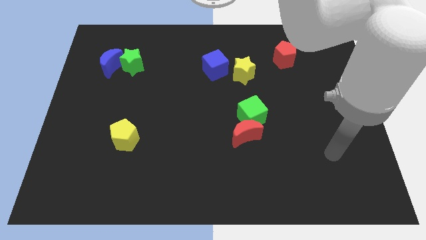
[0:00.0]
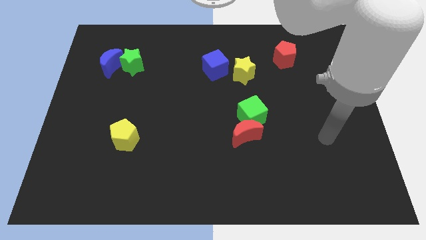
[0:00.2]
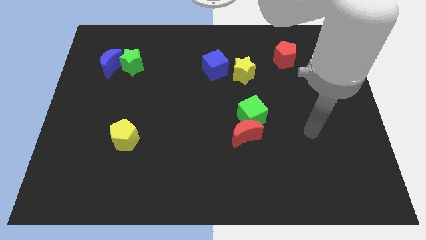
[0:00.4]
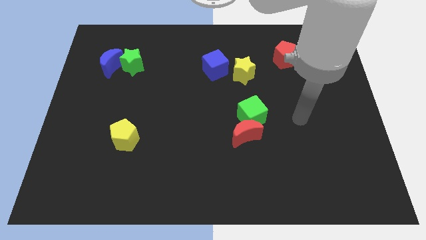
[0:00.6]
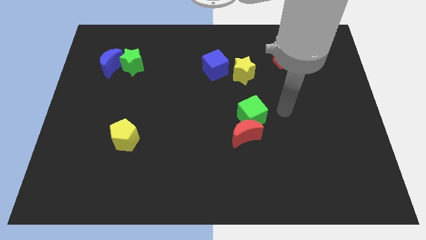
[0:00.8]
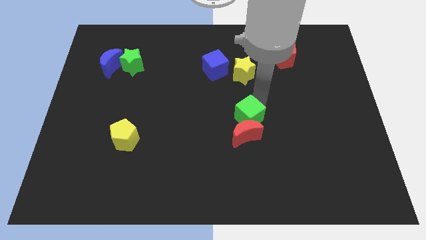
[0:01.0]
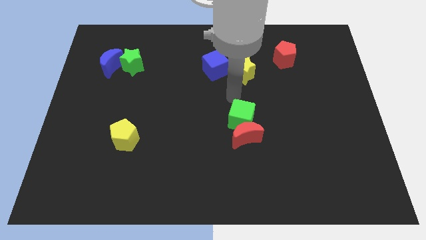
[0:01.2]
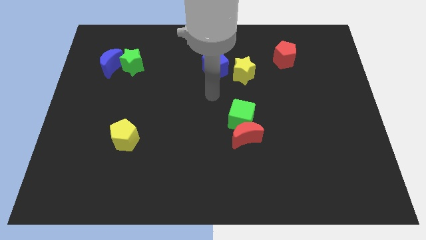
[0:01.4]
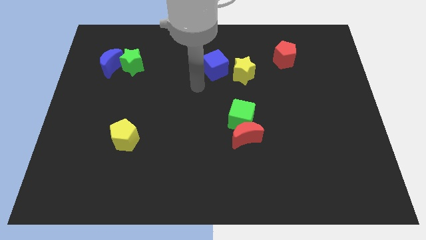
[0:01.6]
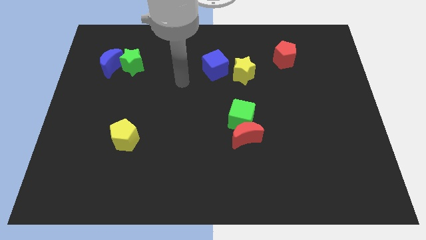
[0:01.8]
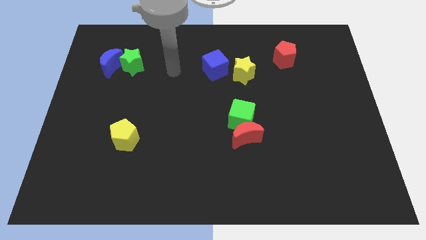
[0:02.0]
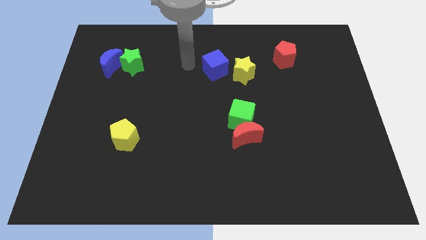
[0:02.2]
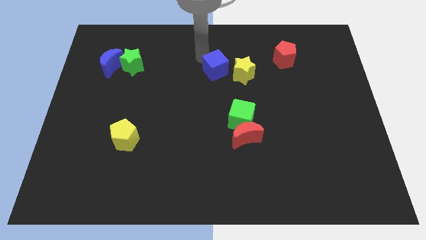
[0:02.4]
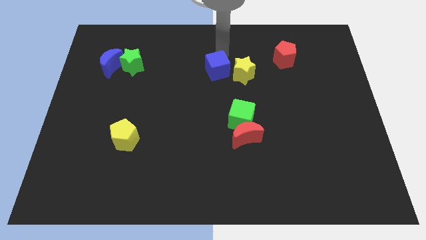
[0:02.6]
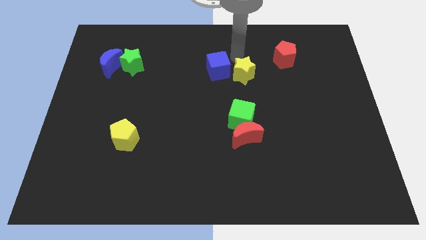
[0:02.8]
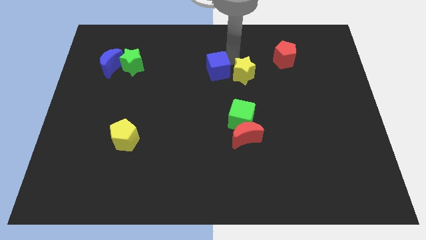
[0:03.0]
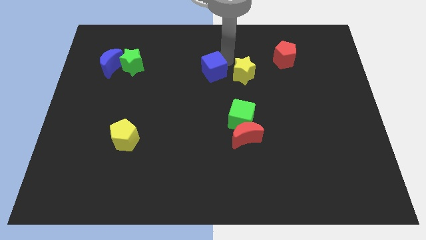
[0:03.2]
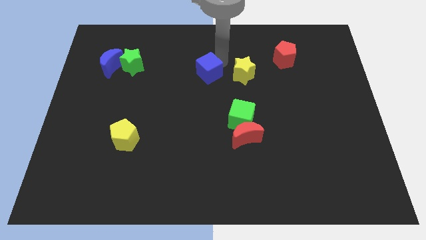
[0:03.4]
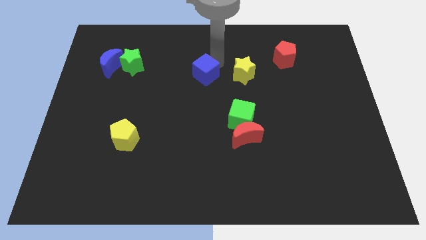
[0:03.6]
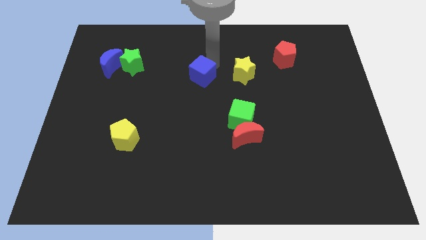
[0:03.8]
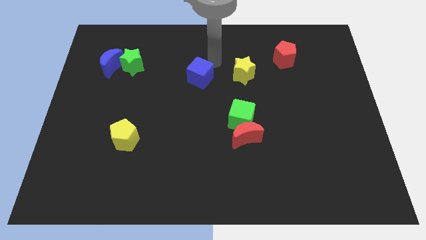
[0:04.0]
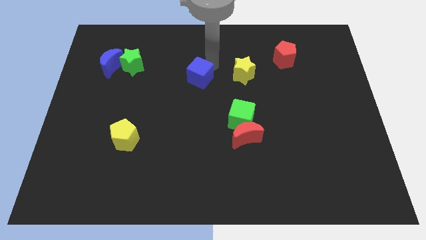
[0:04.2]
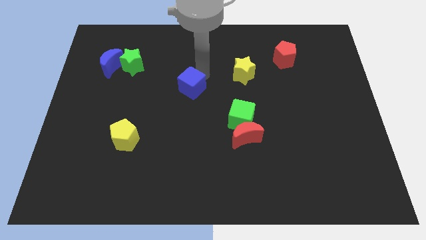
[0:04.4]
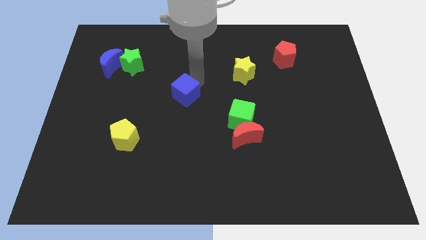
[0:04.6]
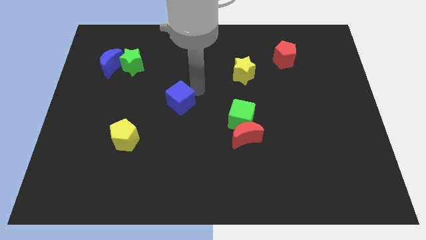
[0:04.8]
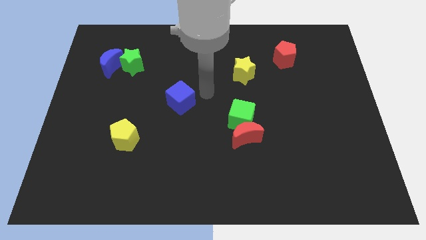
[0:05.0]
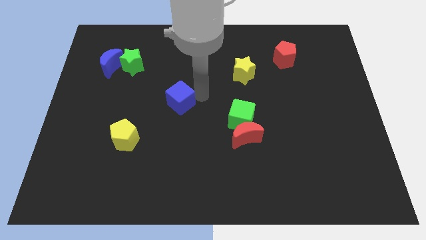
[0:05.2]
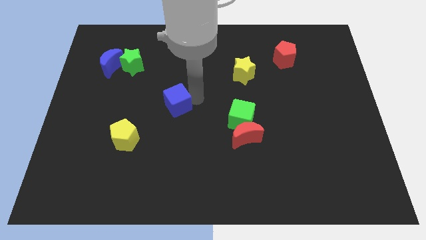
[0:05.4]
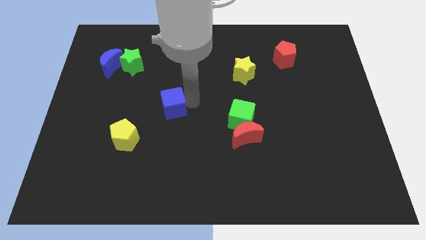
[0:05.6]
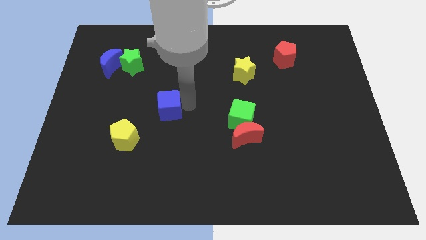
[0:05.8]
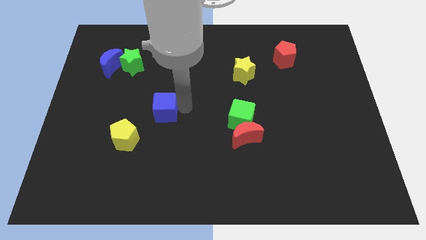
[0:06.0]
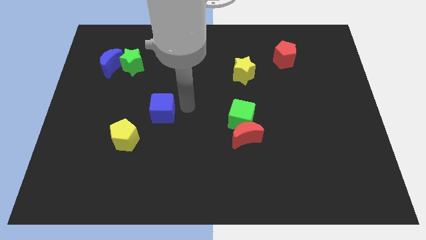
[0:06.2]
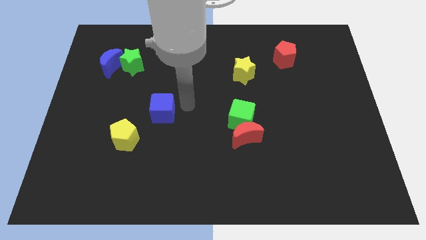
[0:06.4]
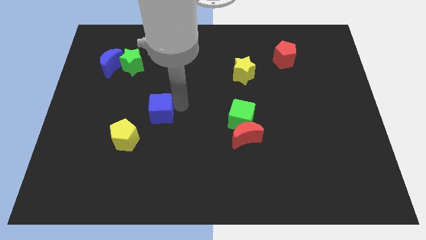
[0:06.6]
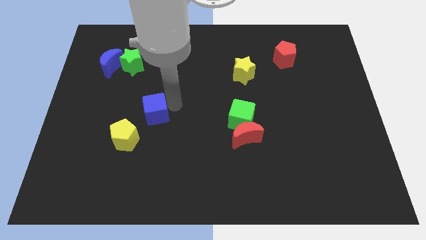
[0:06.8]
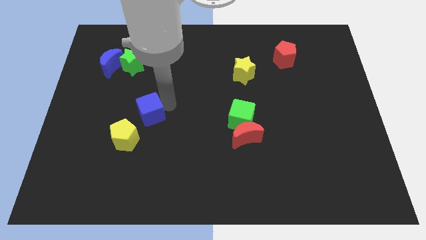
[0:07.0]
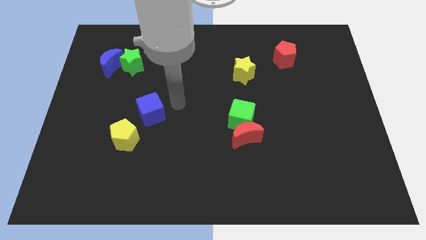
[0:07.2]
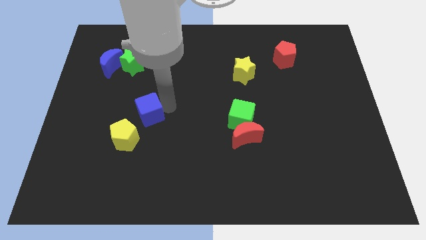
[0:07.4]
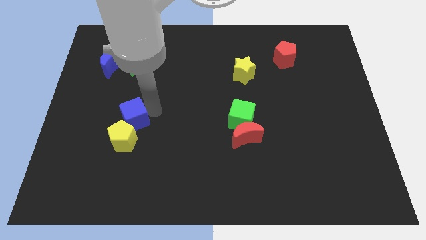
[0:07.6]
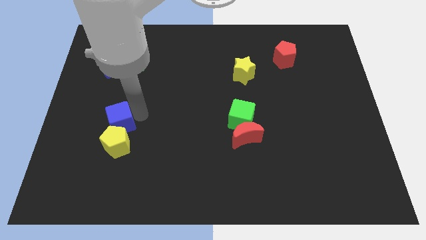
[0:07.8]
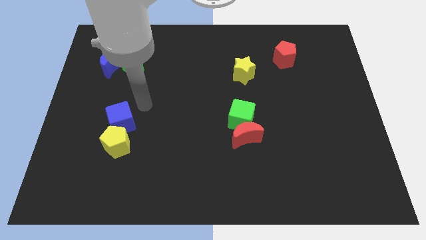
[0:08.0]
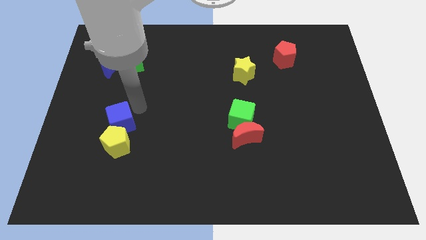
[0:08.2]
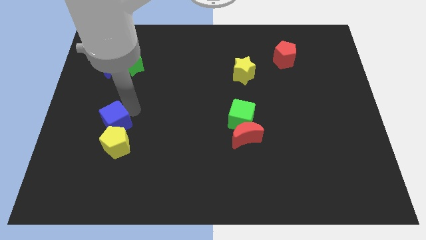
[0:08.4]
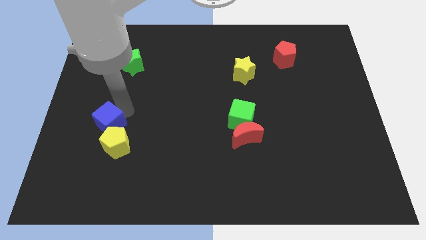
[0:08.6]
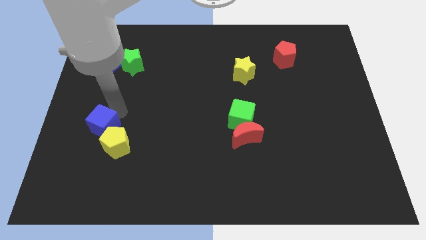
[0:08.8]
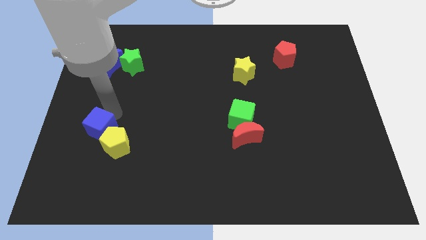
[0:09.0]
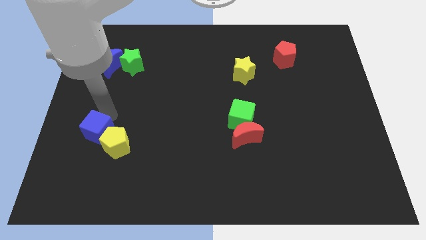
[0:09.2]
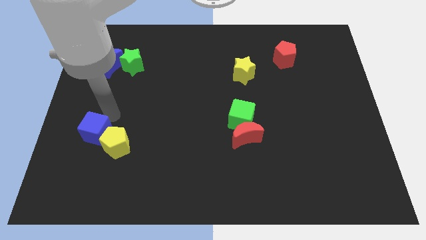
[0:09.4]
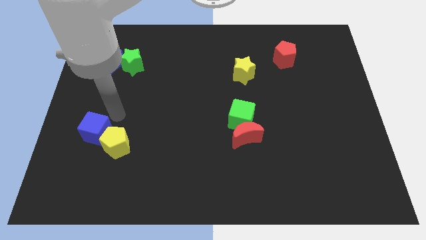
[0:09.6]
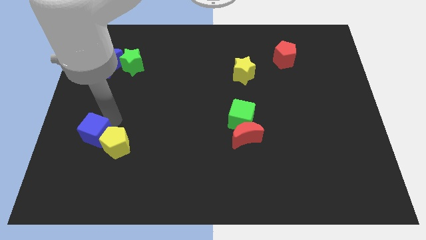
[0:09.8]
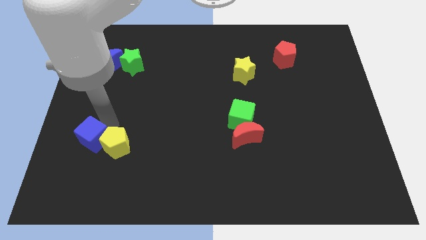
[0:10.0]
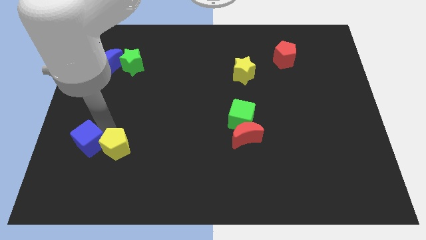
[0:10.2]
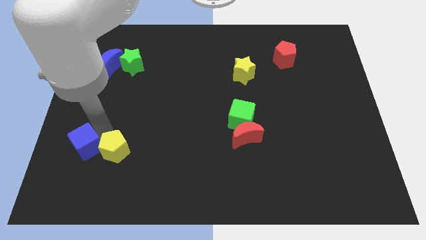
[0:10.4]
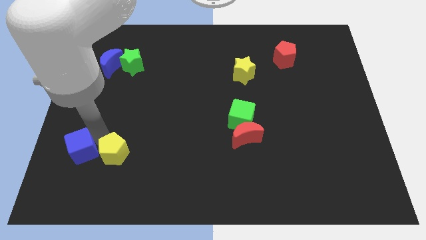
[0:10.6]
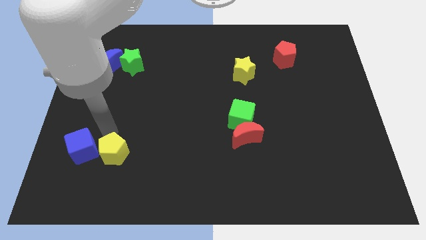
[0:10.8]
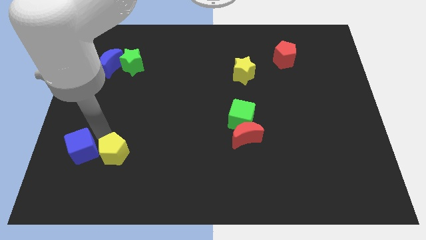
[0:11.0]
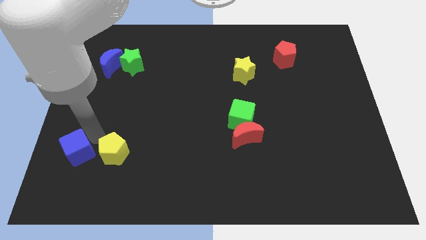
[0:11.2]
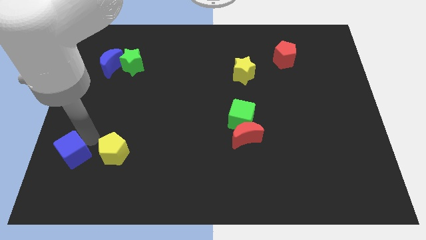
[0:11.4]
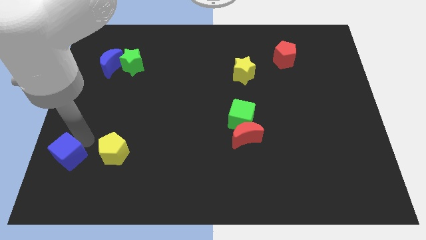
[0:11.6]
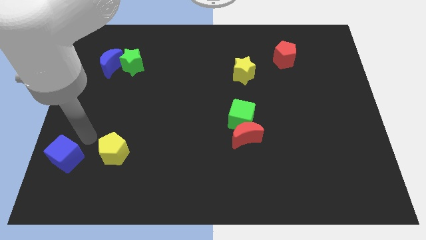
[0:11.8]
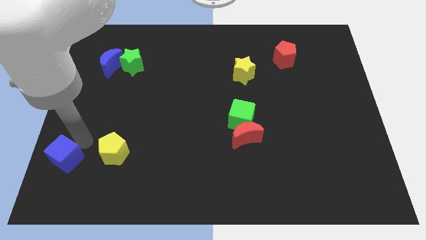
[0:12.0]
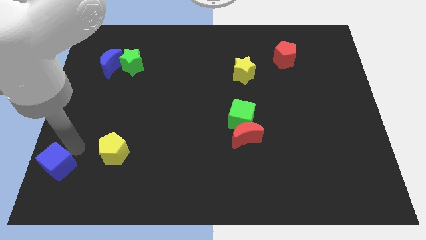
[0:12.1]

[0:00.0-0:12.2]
push the blue cube to the lower left corner

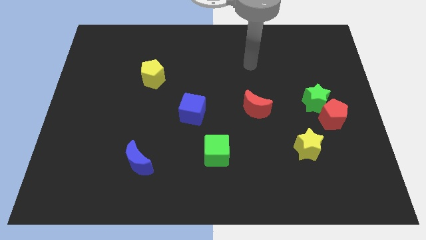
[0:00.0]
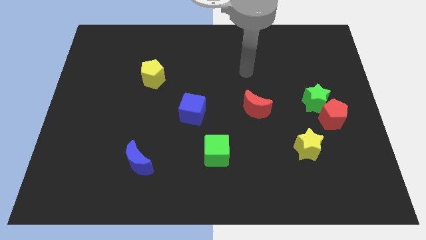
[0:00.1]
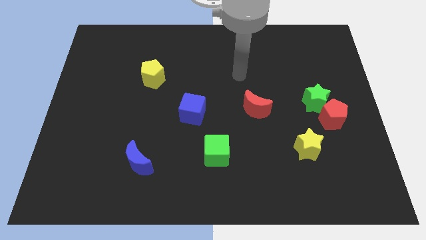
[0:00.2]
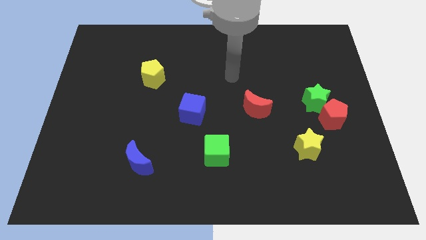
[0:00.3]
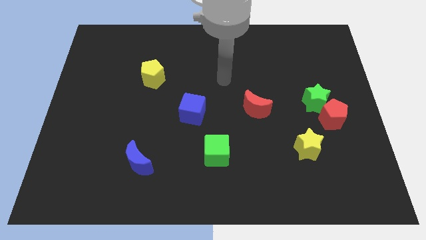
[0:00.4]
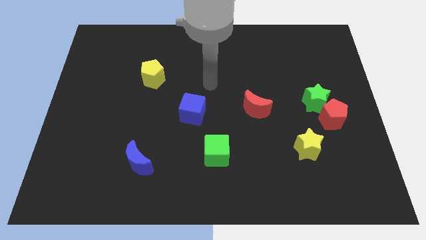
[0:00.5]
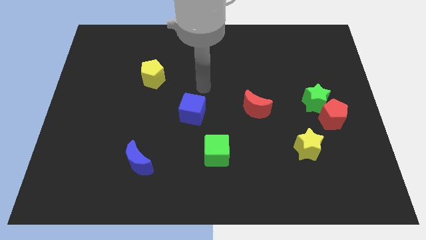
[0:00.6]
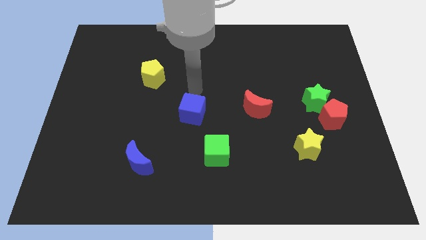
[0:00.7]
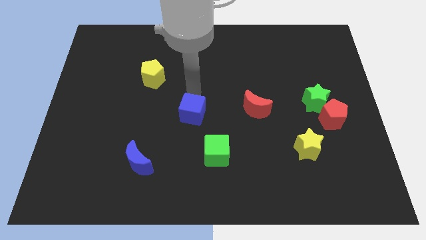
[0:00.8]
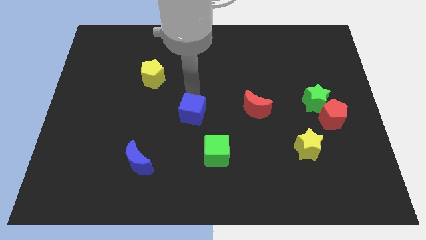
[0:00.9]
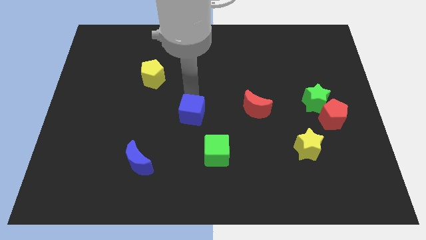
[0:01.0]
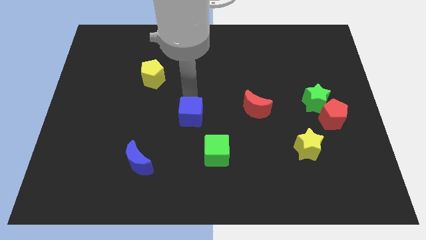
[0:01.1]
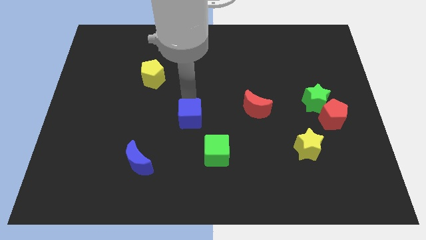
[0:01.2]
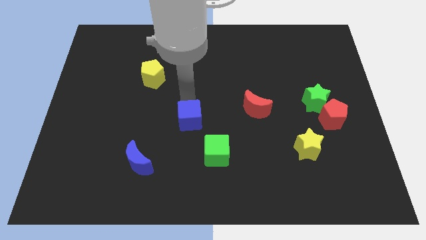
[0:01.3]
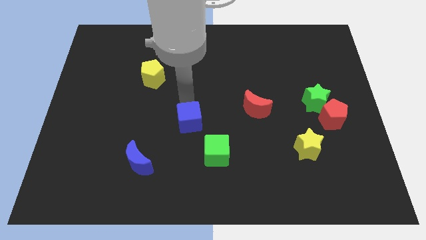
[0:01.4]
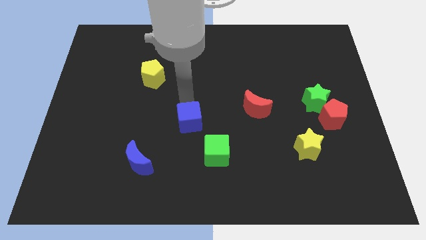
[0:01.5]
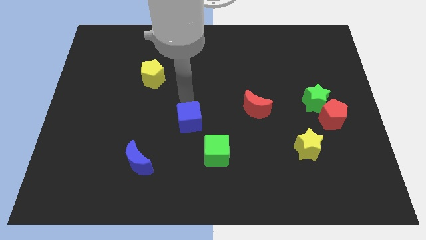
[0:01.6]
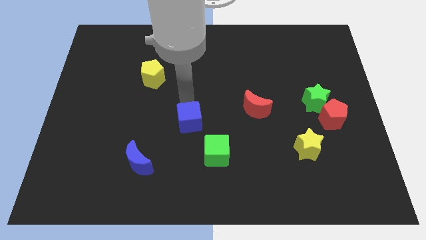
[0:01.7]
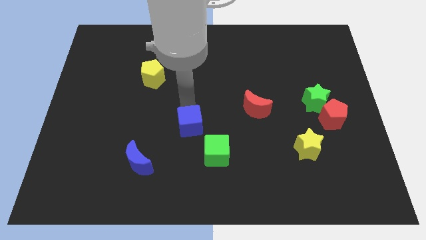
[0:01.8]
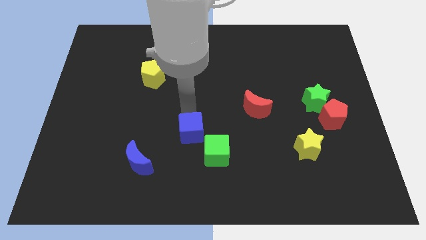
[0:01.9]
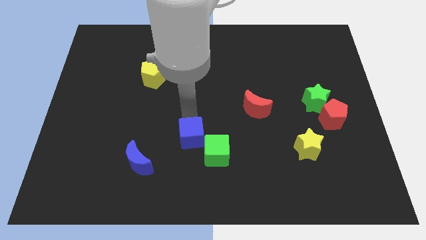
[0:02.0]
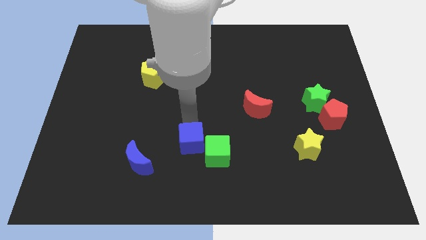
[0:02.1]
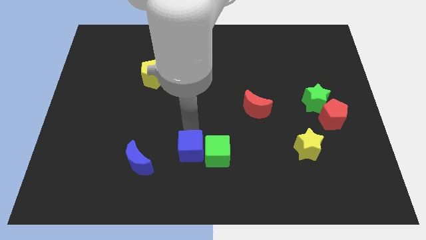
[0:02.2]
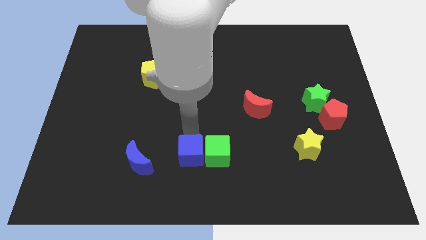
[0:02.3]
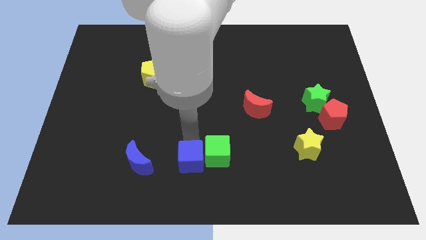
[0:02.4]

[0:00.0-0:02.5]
slide the blue cube to the bottom side
